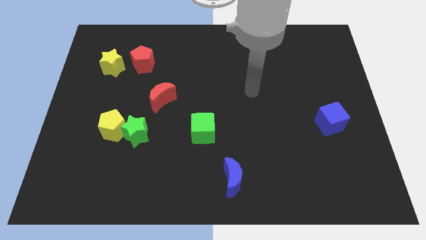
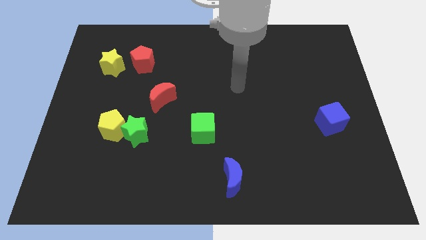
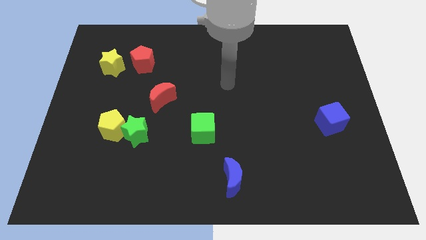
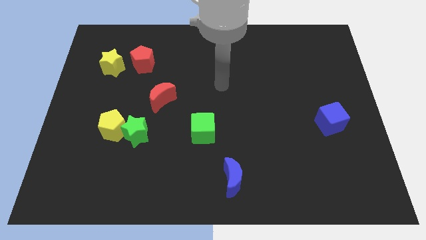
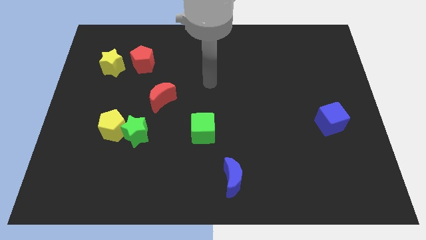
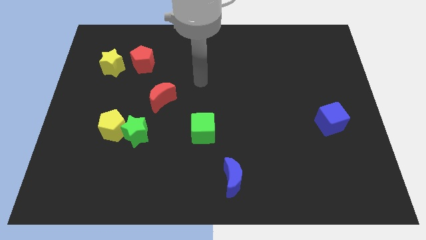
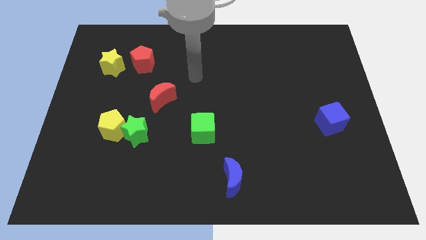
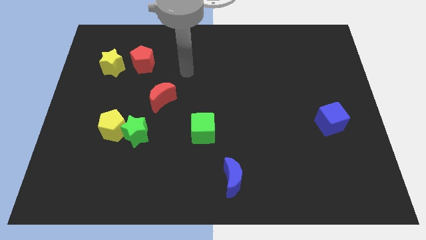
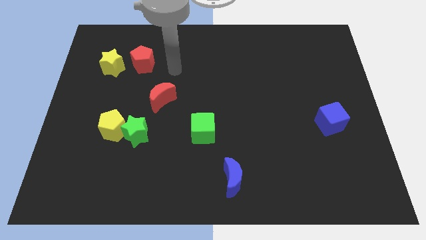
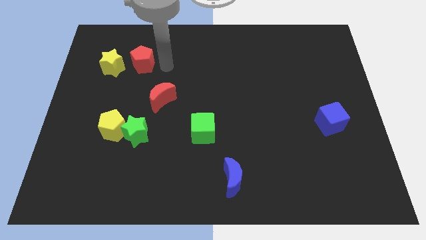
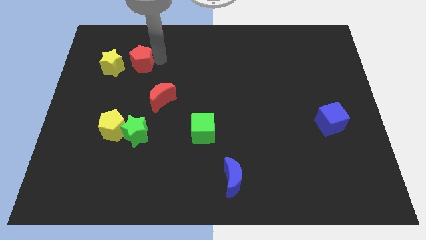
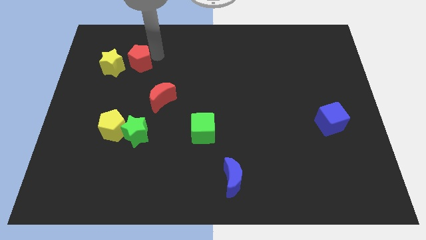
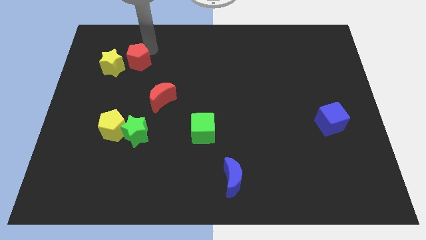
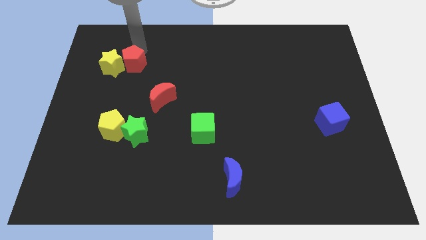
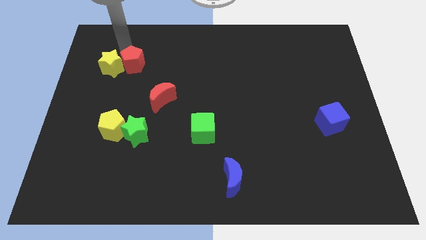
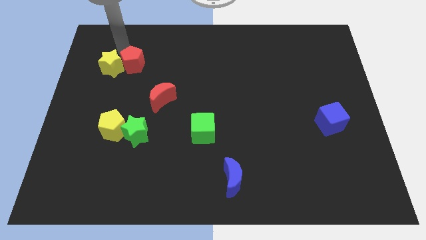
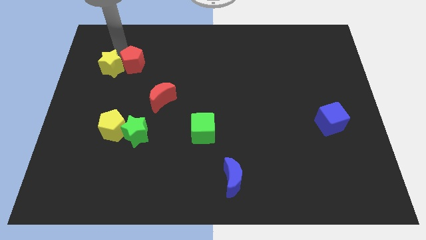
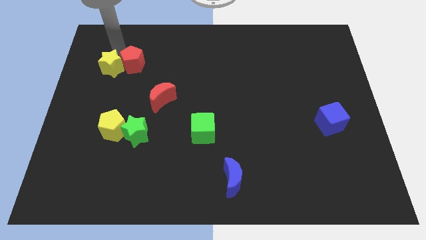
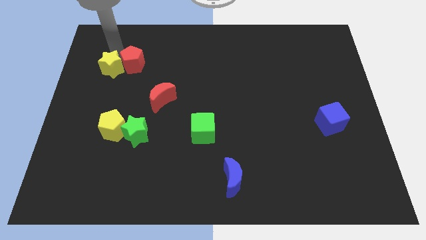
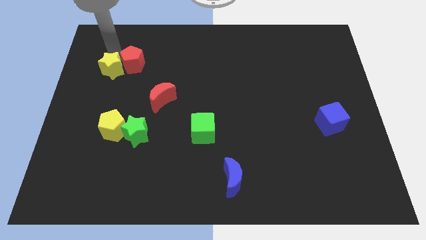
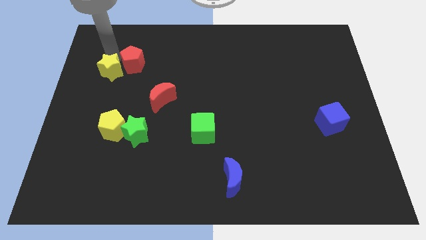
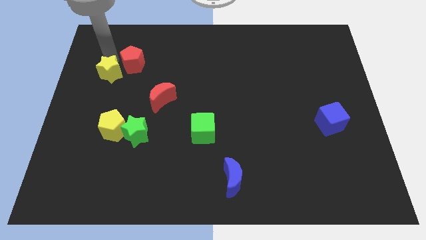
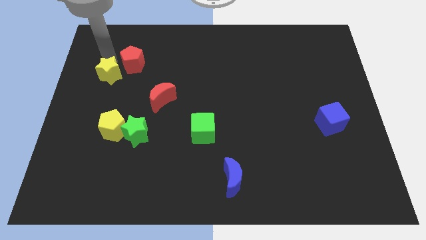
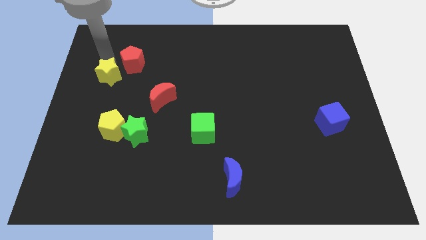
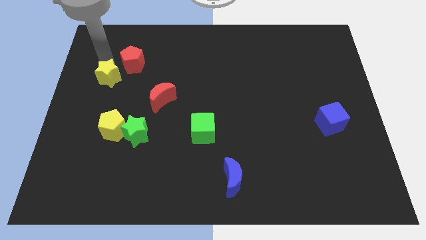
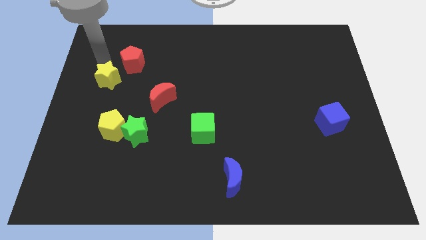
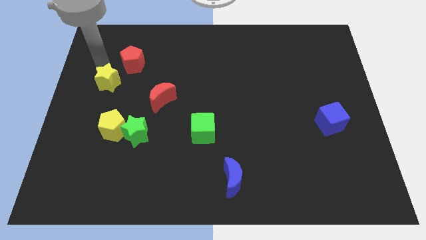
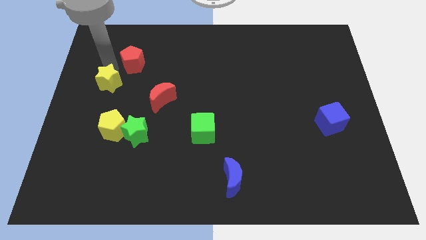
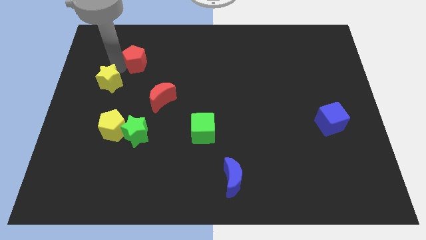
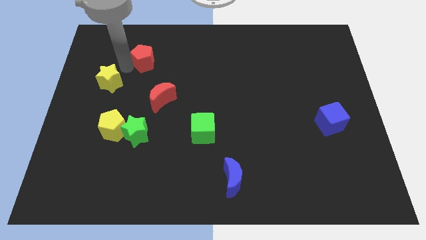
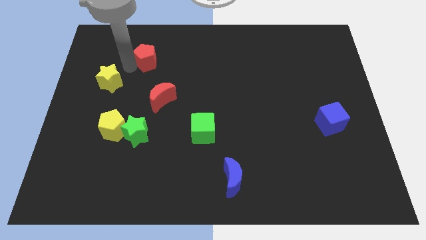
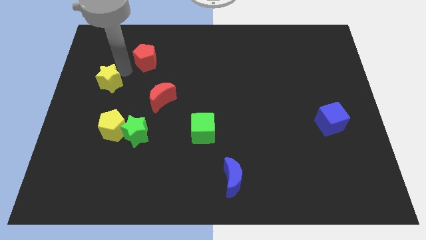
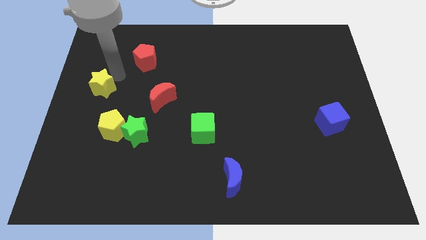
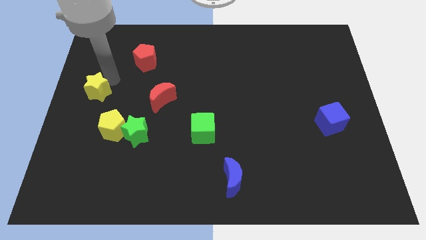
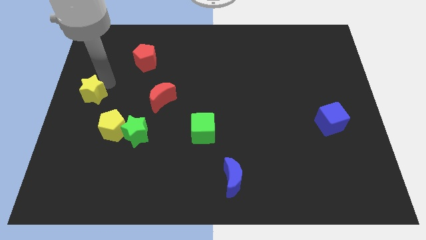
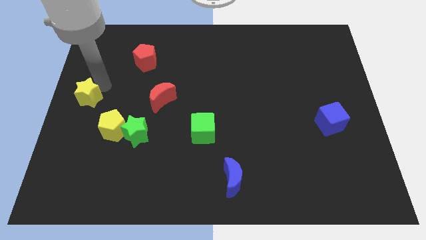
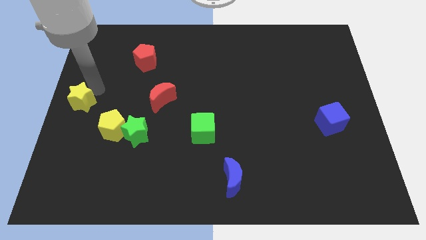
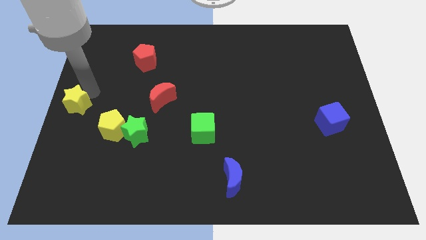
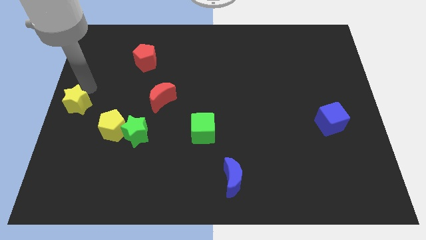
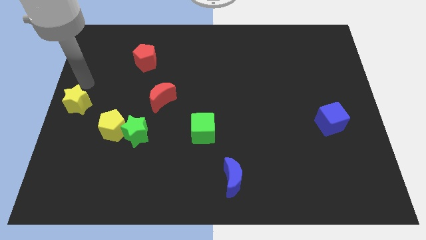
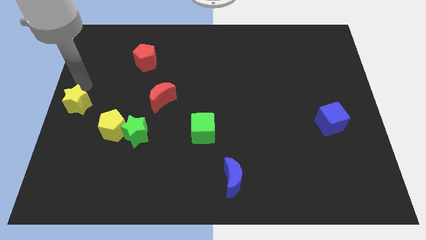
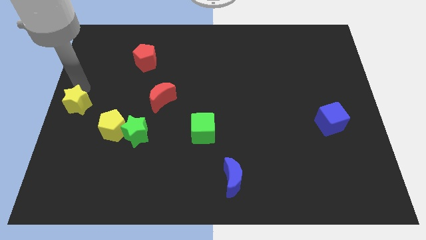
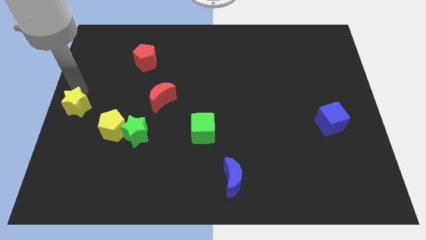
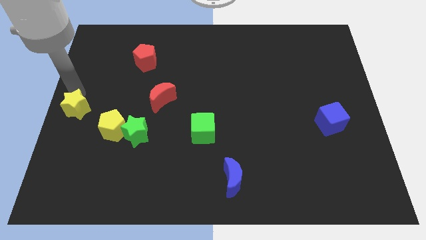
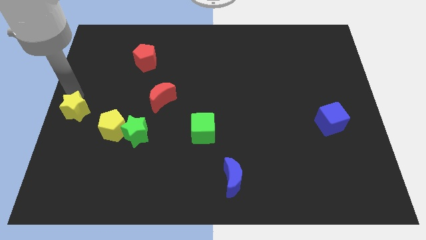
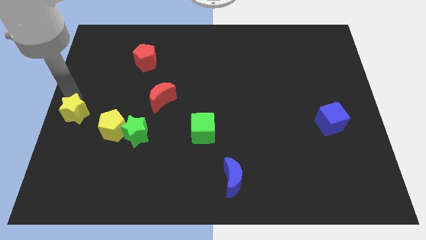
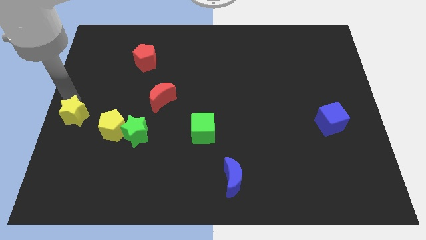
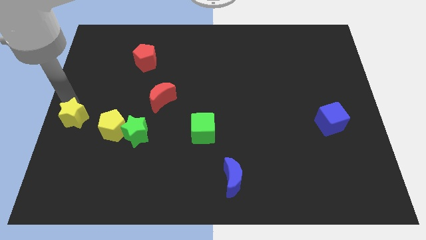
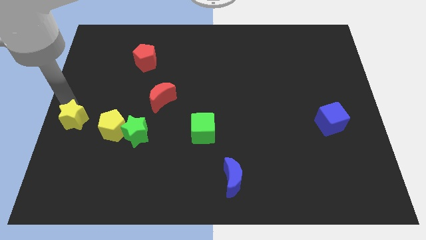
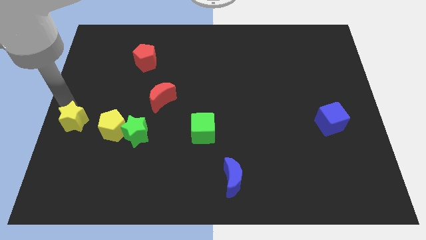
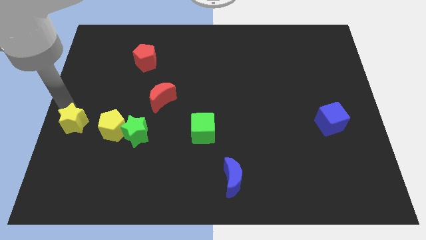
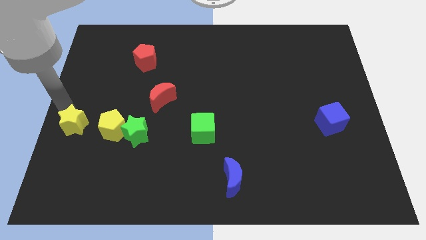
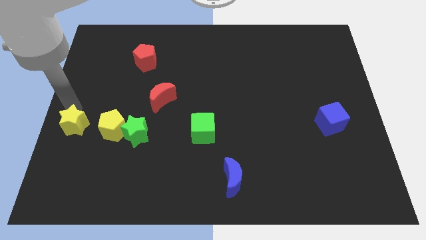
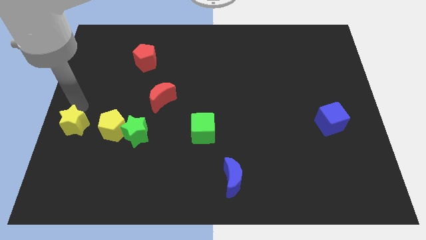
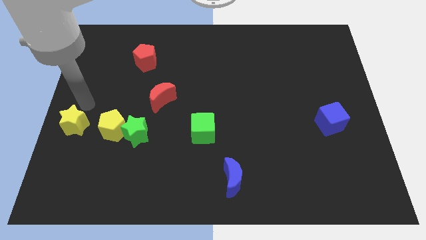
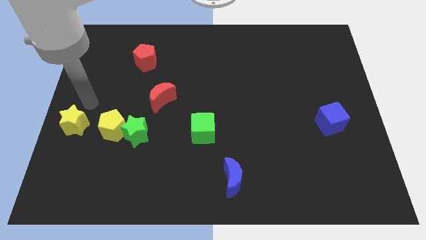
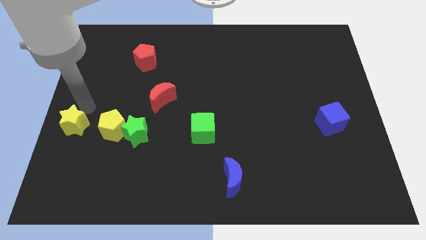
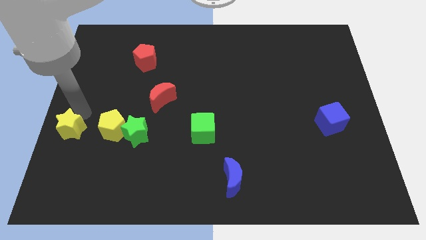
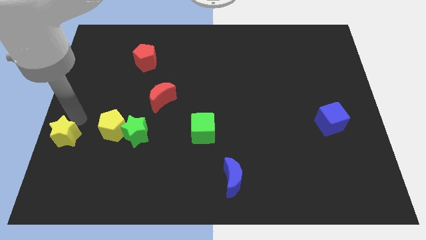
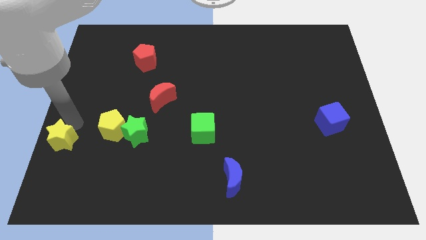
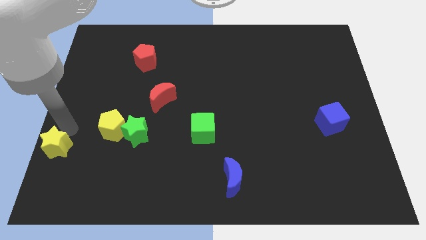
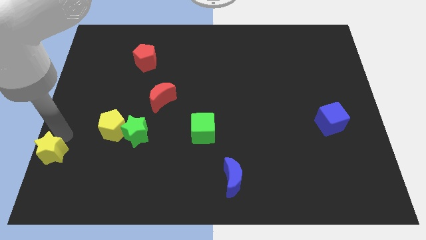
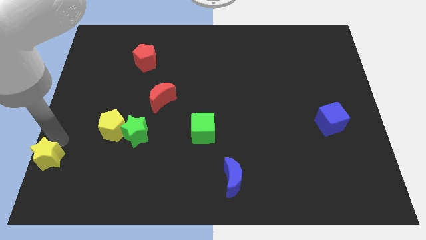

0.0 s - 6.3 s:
push the yellow star to the lower left corner

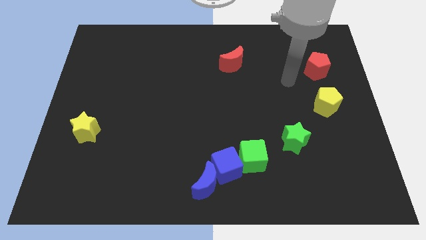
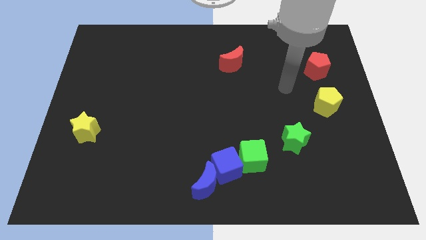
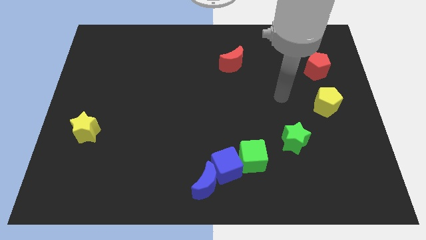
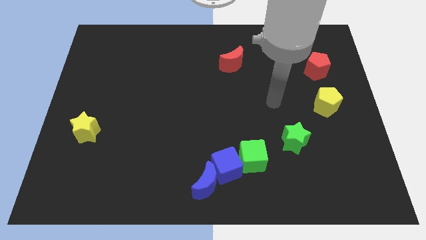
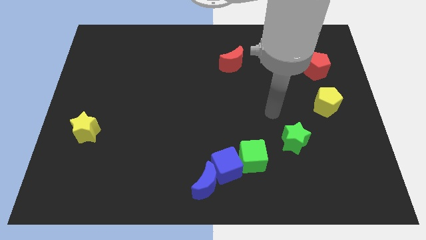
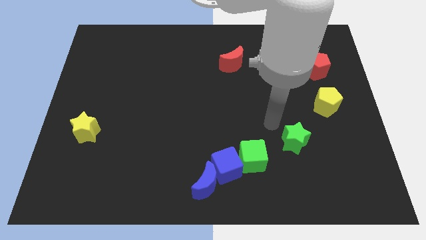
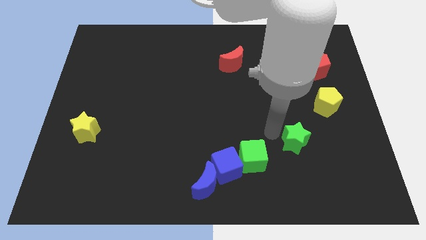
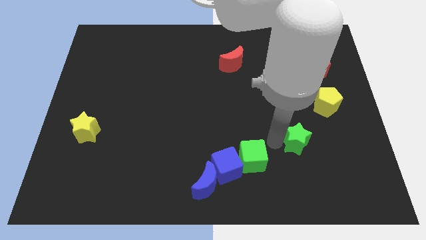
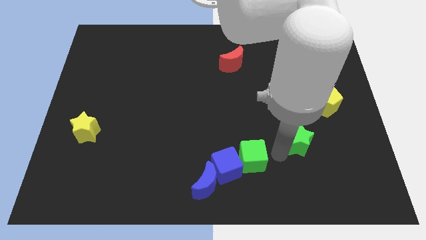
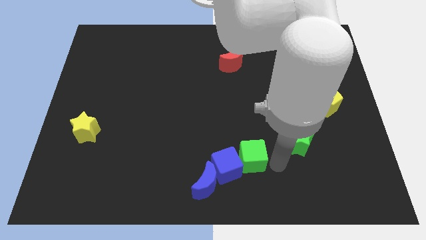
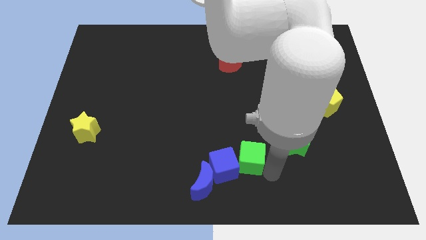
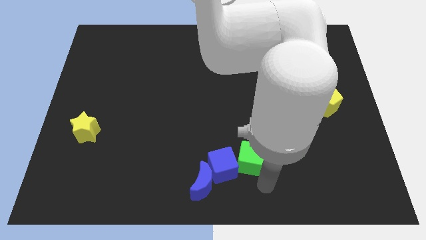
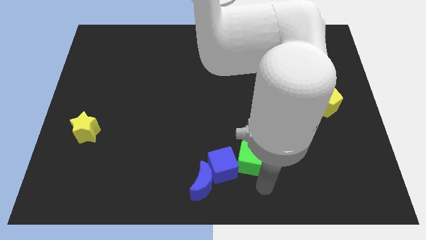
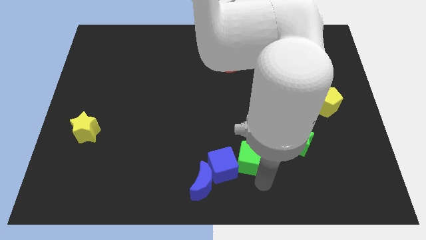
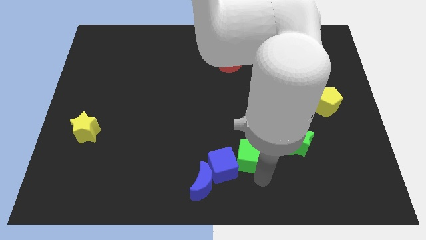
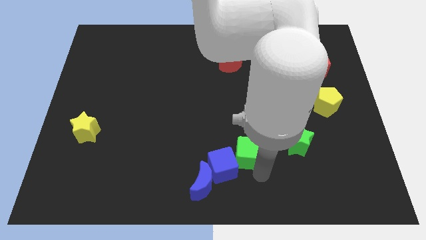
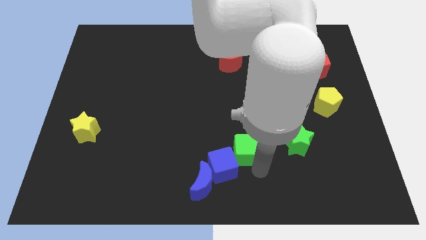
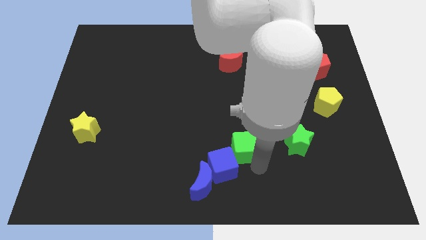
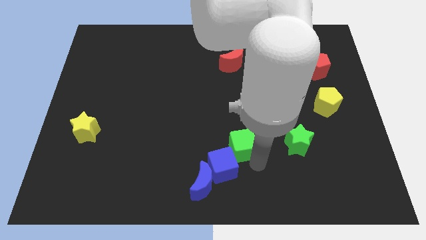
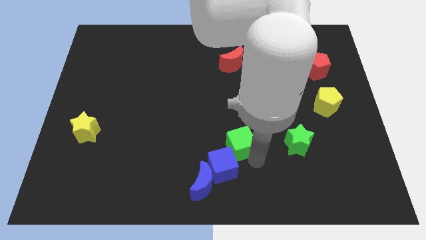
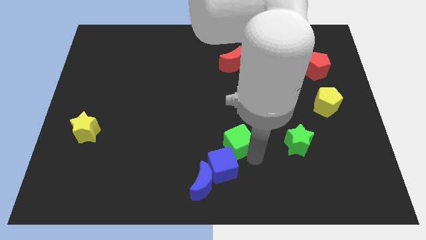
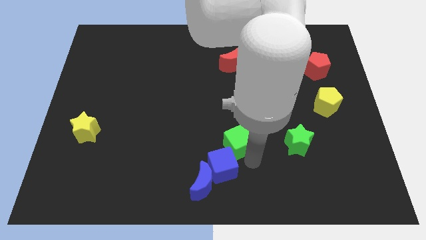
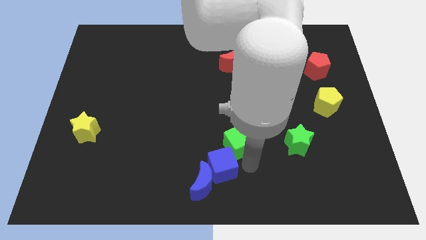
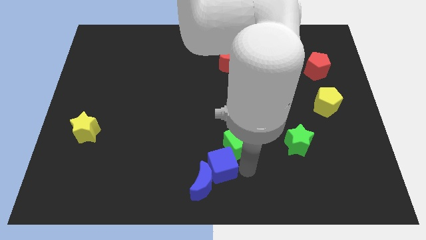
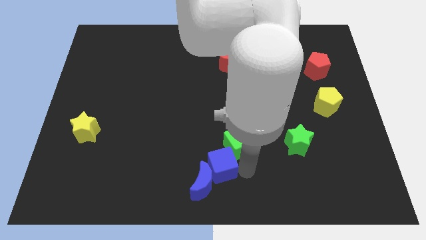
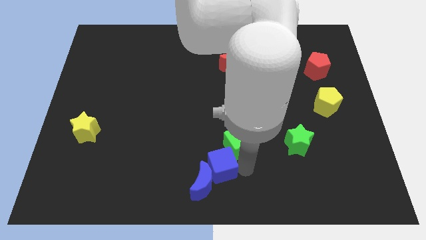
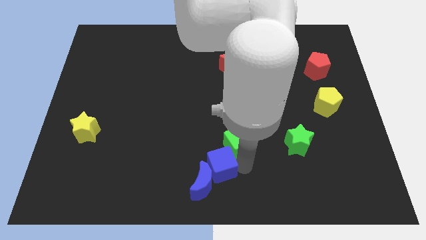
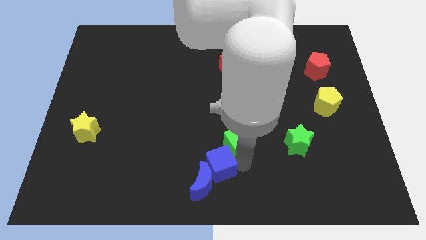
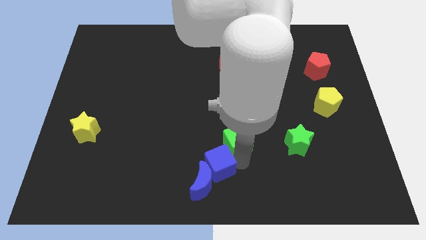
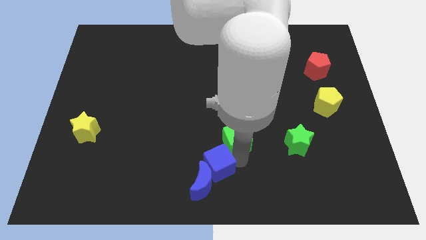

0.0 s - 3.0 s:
put the green cube to the center
